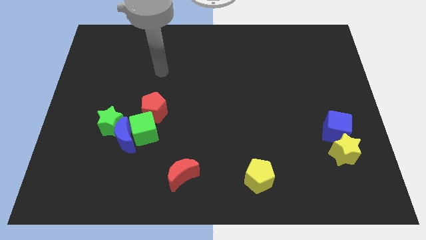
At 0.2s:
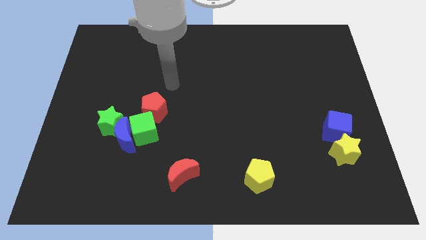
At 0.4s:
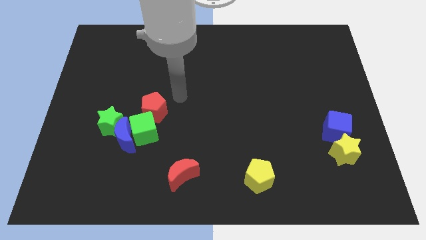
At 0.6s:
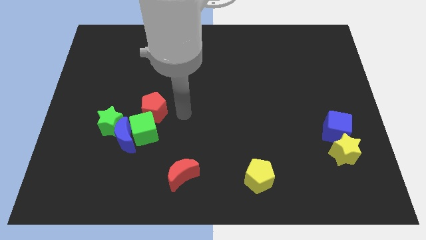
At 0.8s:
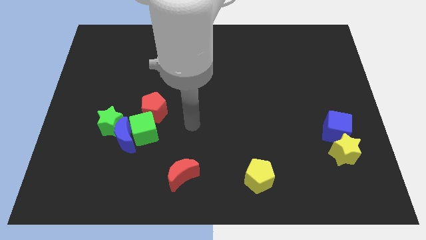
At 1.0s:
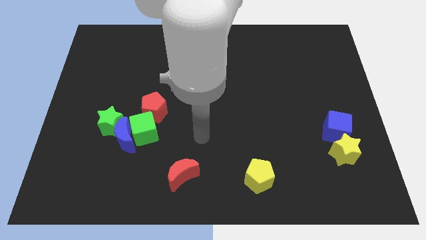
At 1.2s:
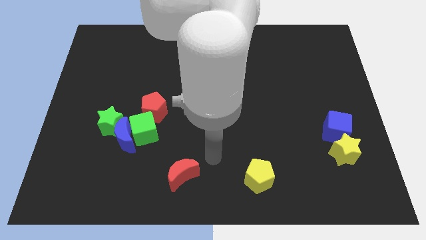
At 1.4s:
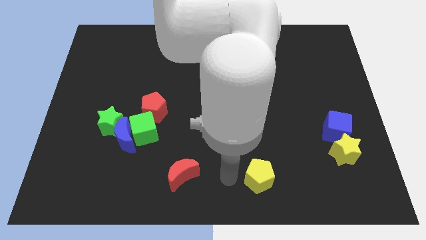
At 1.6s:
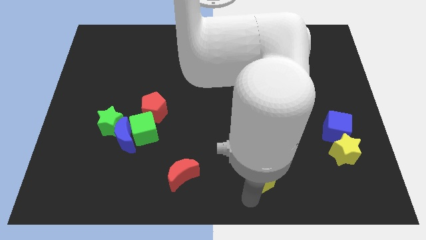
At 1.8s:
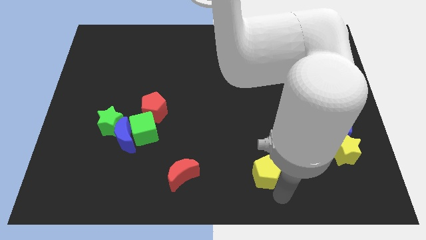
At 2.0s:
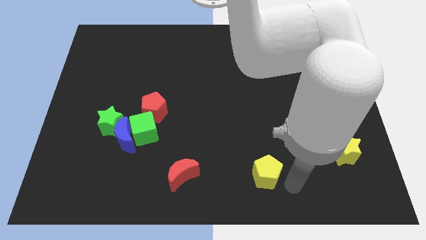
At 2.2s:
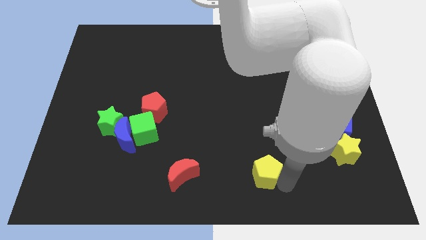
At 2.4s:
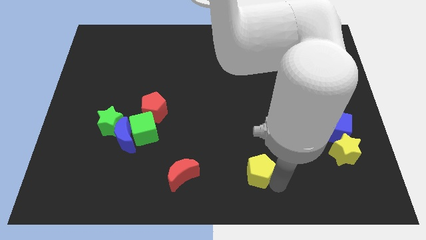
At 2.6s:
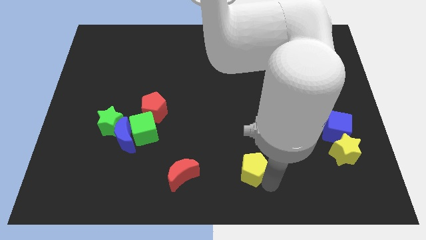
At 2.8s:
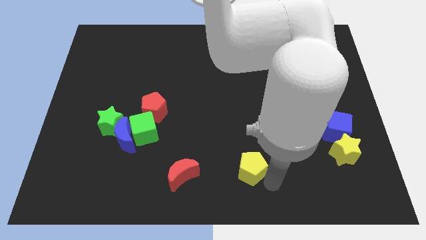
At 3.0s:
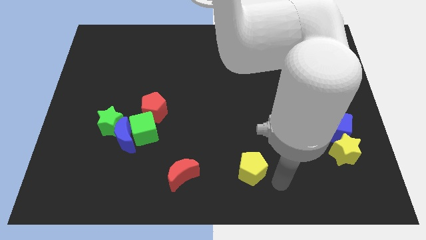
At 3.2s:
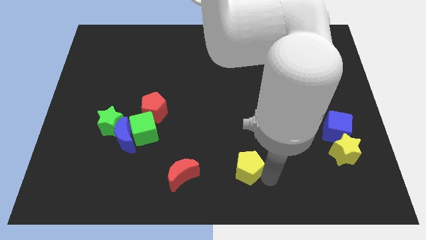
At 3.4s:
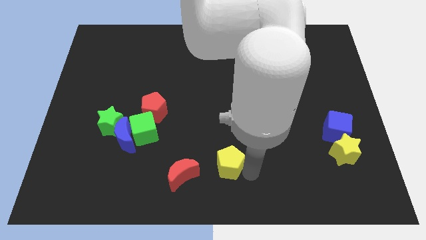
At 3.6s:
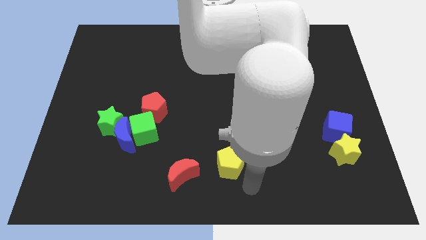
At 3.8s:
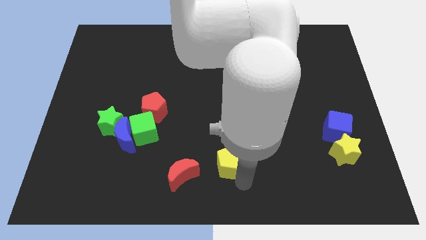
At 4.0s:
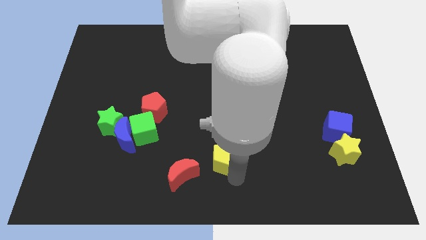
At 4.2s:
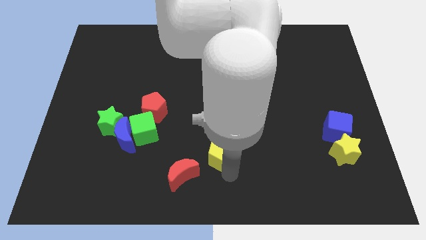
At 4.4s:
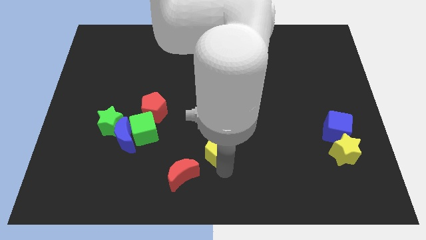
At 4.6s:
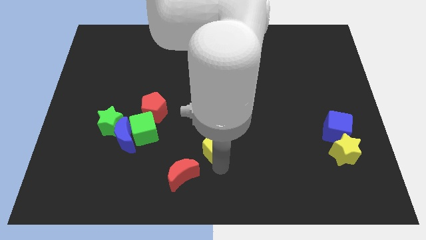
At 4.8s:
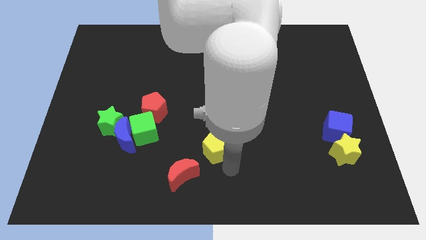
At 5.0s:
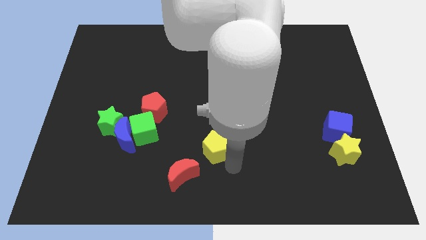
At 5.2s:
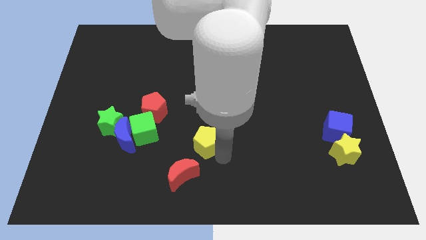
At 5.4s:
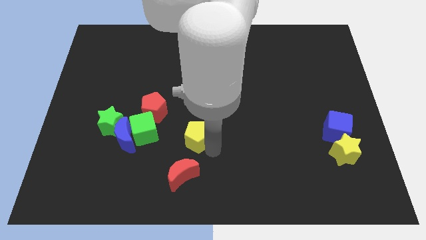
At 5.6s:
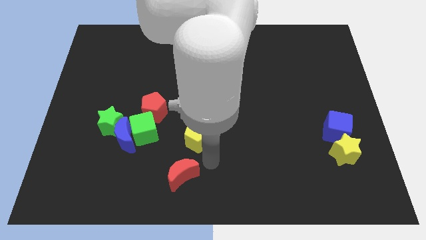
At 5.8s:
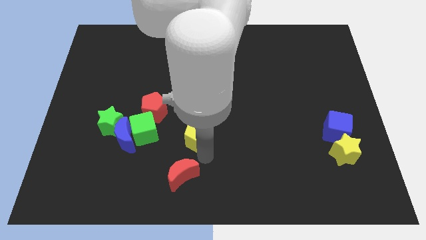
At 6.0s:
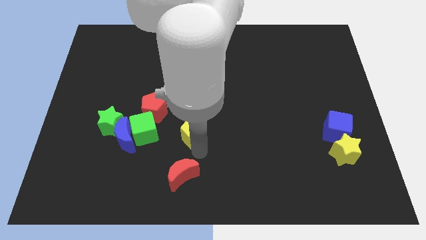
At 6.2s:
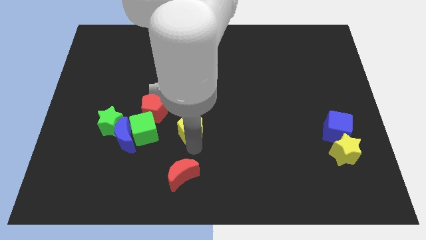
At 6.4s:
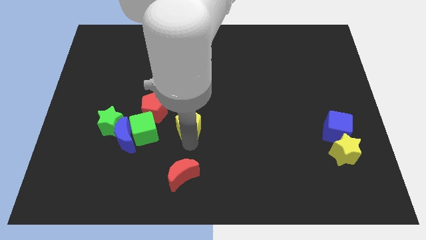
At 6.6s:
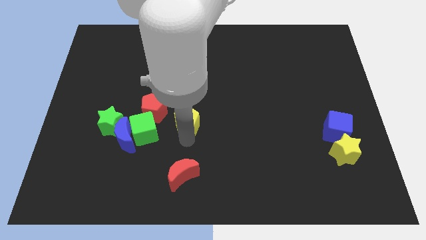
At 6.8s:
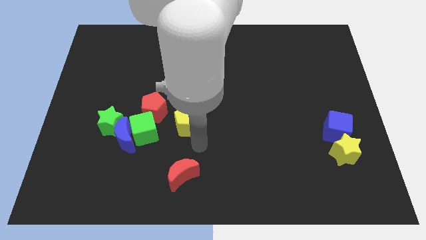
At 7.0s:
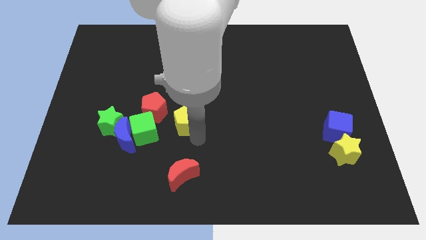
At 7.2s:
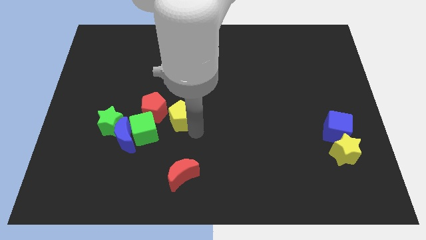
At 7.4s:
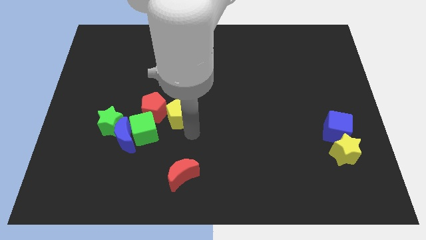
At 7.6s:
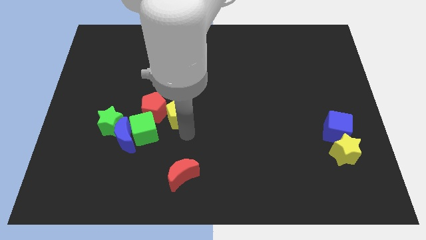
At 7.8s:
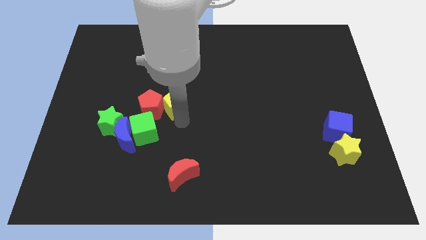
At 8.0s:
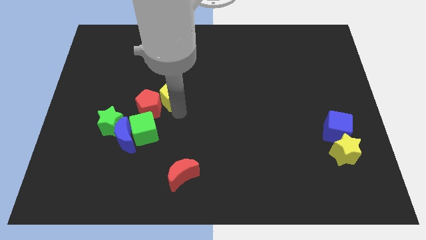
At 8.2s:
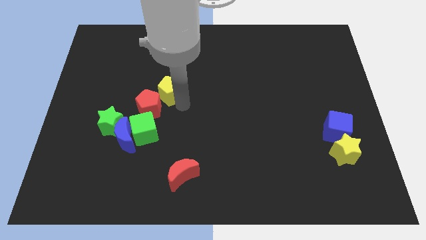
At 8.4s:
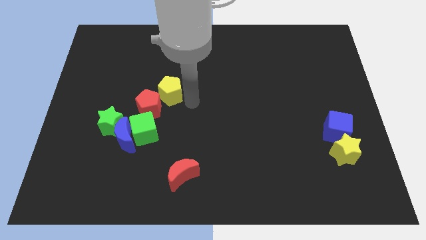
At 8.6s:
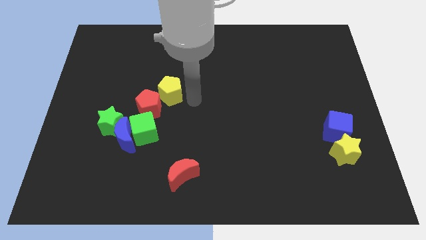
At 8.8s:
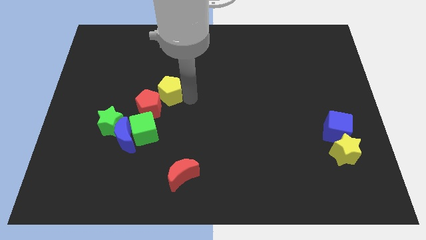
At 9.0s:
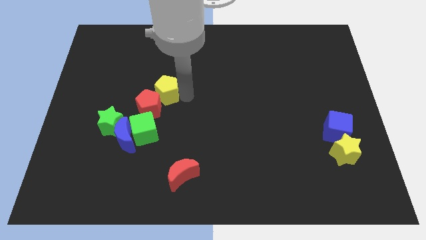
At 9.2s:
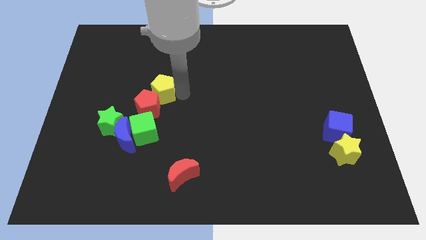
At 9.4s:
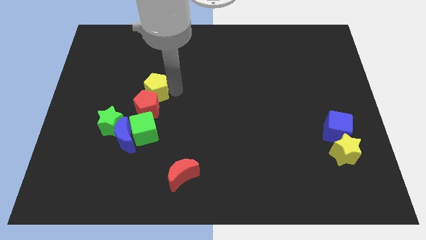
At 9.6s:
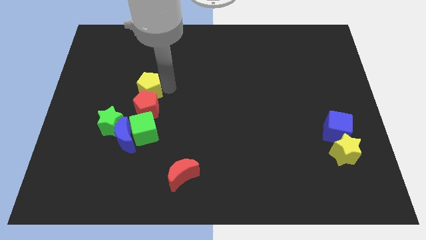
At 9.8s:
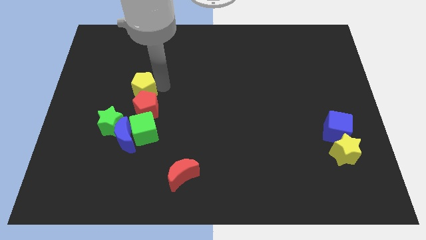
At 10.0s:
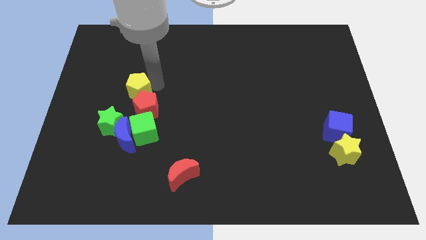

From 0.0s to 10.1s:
push the yellow pentagon to the top of the green star

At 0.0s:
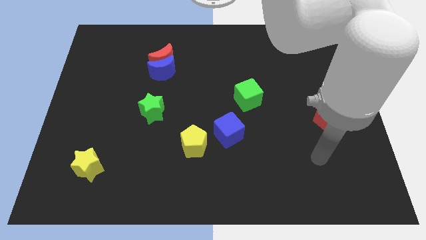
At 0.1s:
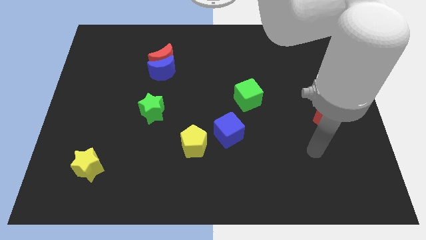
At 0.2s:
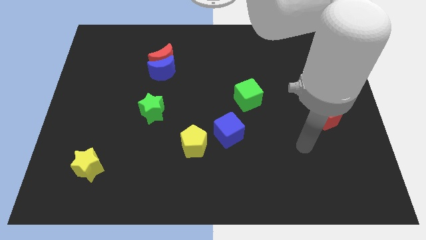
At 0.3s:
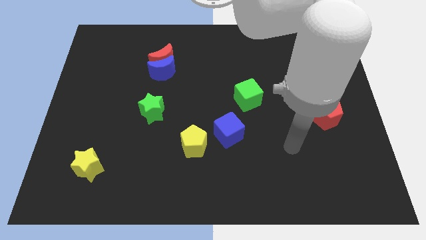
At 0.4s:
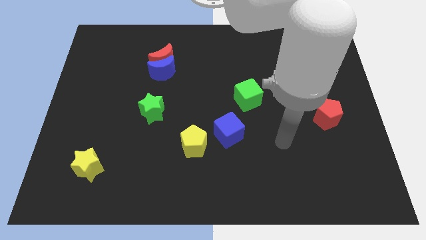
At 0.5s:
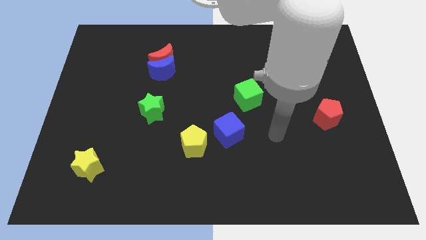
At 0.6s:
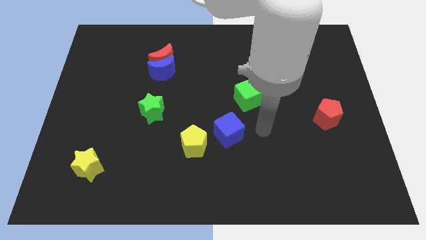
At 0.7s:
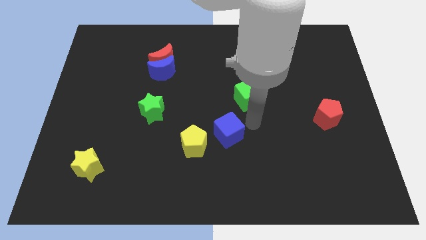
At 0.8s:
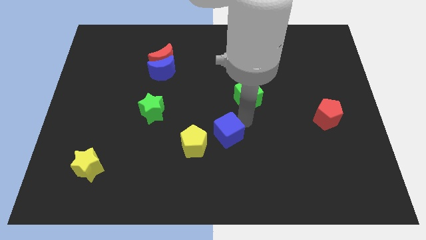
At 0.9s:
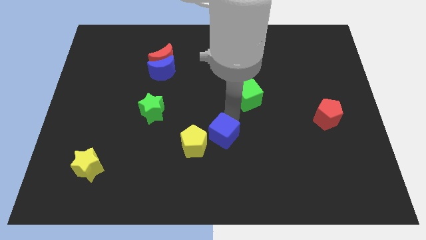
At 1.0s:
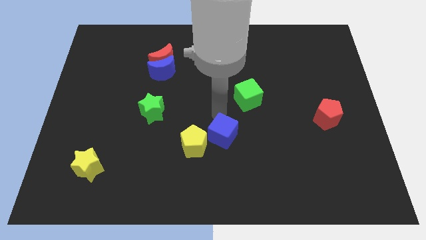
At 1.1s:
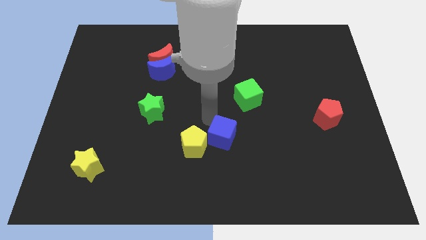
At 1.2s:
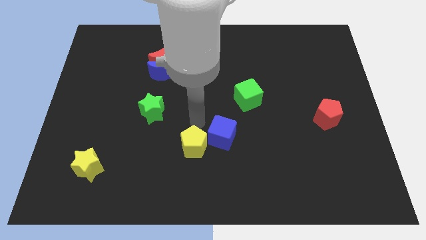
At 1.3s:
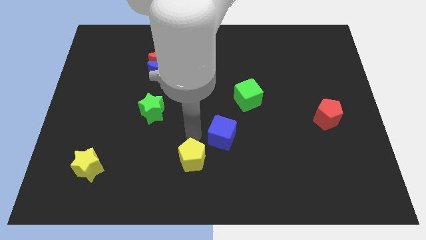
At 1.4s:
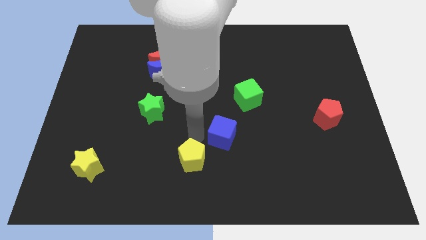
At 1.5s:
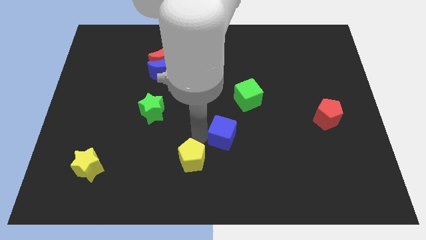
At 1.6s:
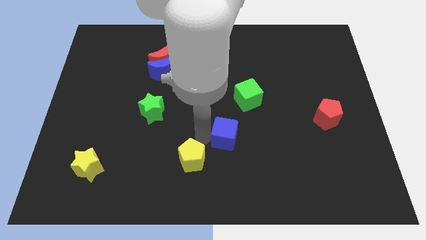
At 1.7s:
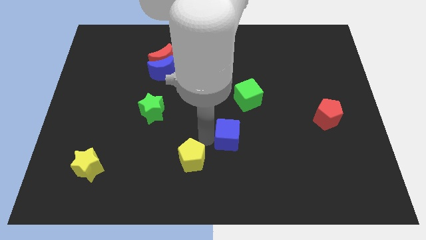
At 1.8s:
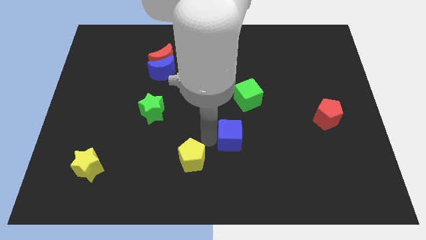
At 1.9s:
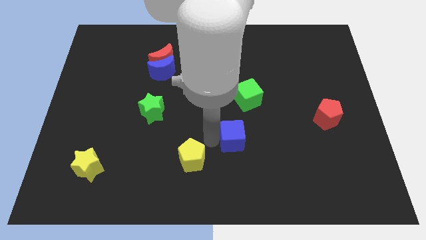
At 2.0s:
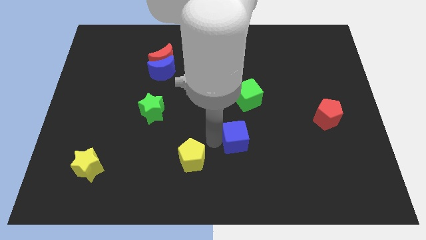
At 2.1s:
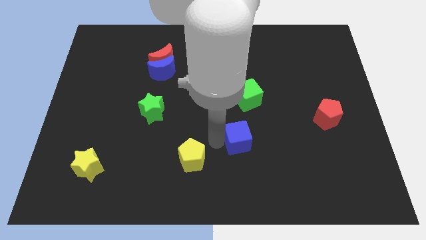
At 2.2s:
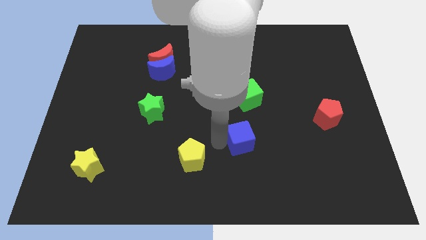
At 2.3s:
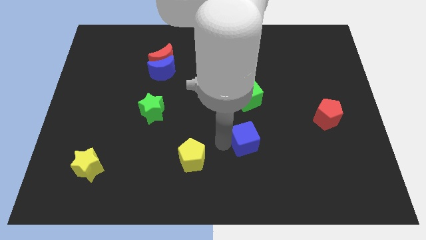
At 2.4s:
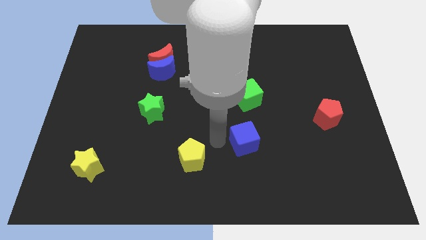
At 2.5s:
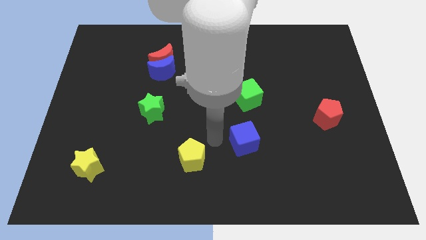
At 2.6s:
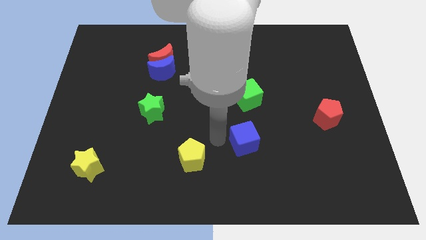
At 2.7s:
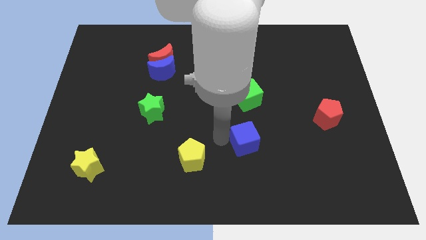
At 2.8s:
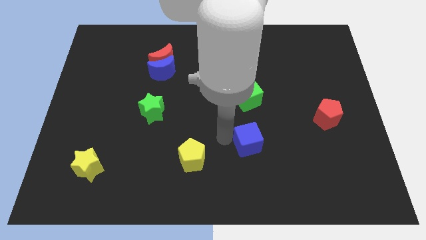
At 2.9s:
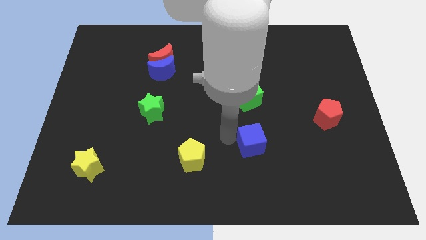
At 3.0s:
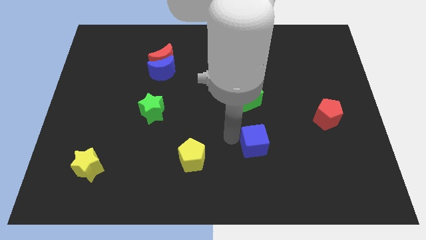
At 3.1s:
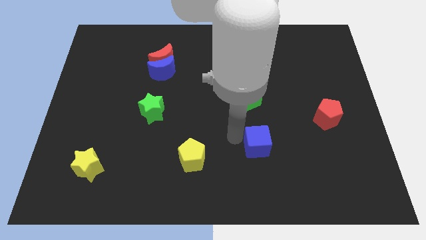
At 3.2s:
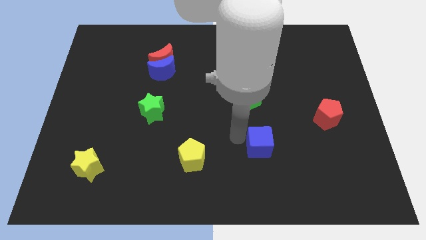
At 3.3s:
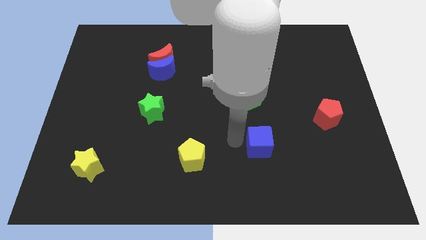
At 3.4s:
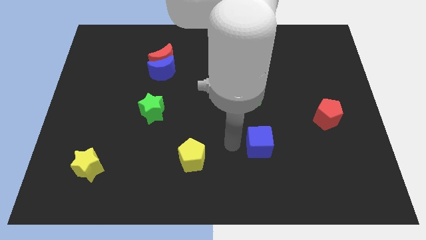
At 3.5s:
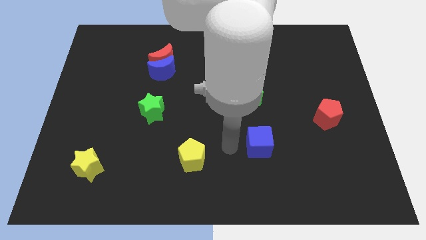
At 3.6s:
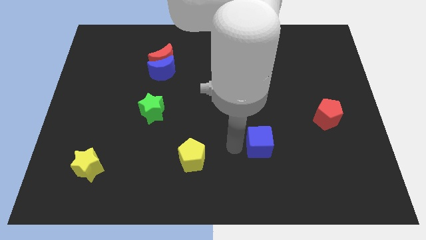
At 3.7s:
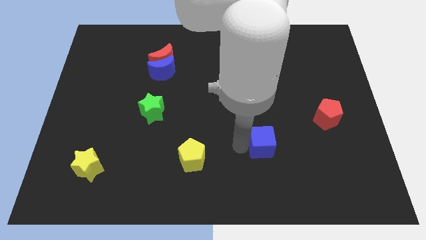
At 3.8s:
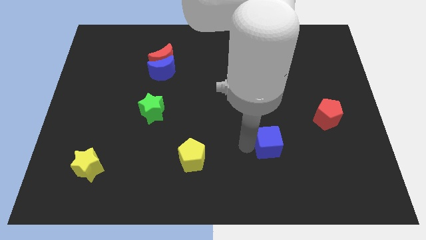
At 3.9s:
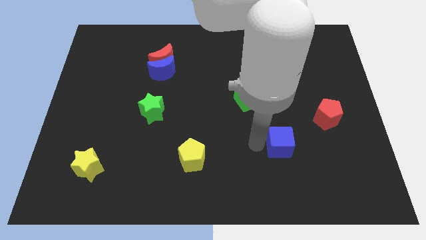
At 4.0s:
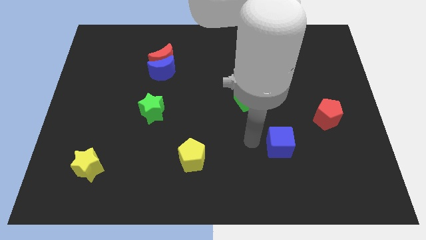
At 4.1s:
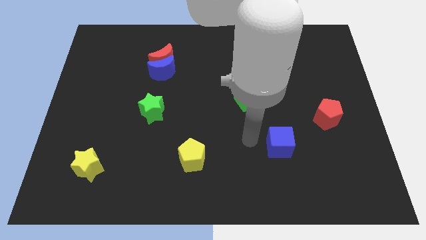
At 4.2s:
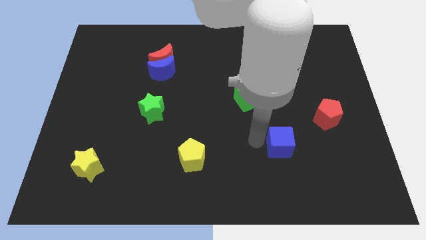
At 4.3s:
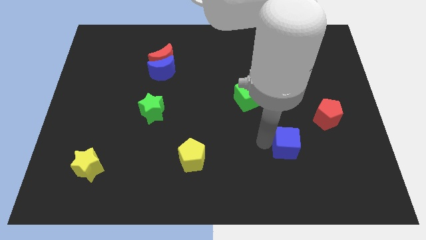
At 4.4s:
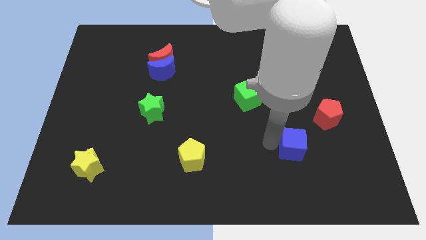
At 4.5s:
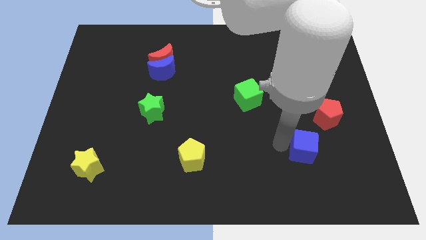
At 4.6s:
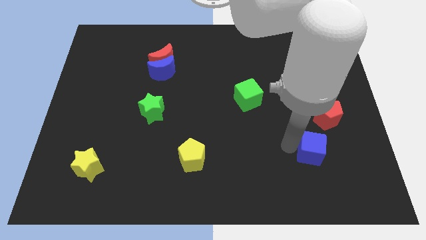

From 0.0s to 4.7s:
slide the blue cube to the bottom of the red pentagon
